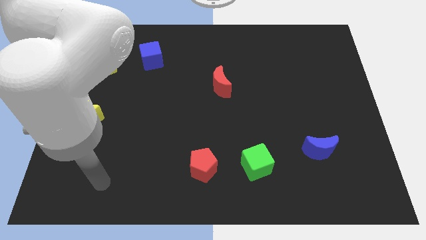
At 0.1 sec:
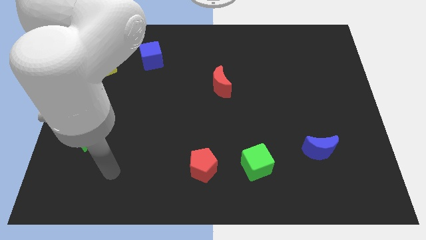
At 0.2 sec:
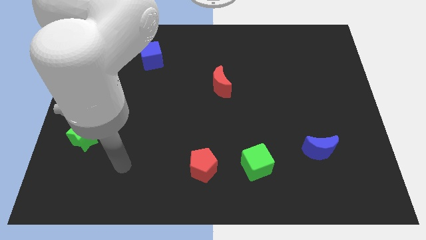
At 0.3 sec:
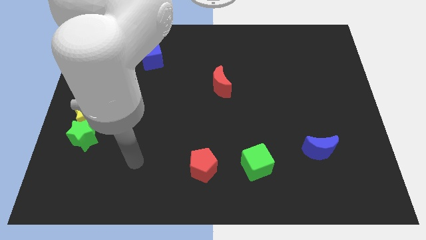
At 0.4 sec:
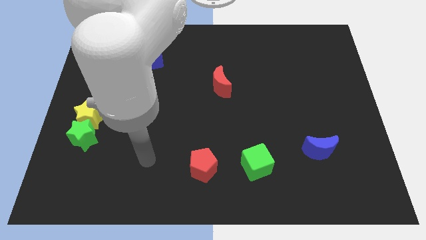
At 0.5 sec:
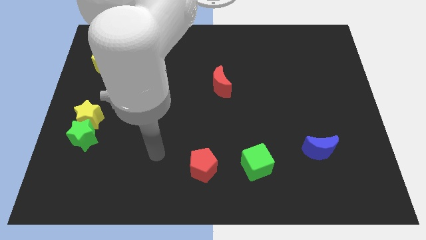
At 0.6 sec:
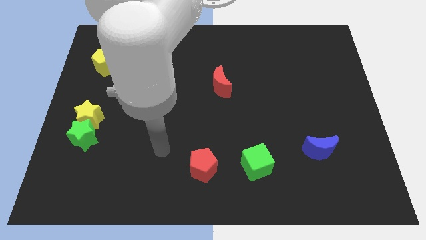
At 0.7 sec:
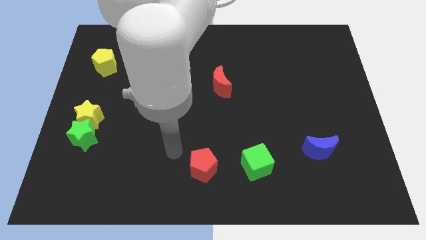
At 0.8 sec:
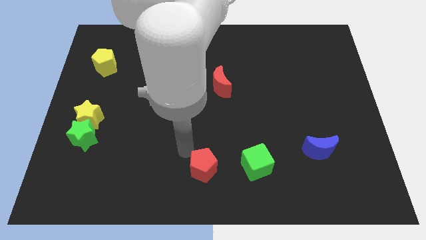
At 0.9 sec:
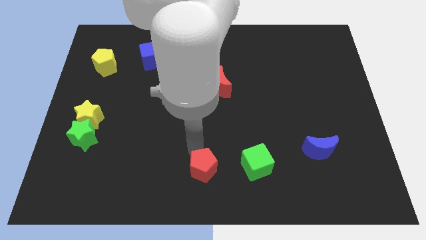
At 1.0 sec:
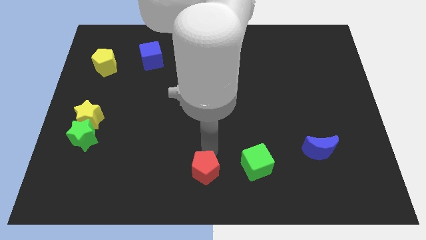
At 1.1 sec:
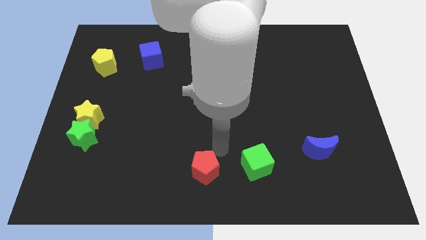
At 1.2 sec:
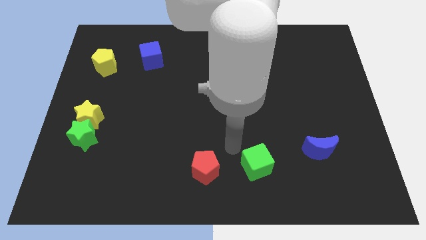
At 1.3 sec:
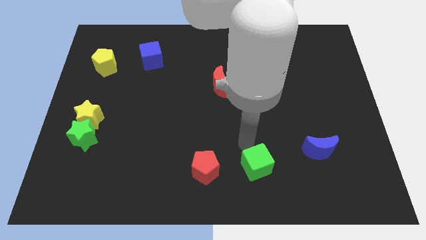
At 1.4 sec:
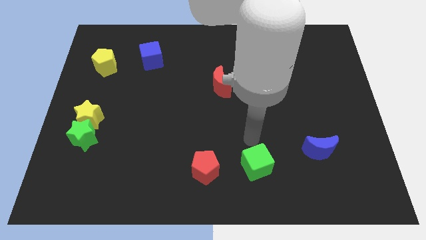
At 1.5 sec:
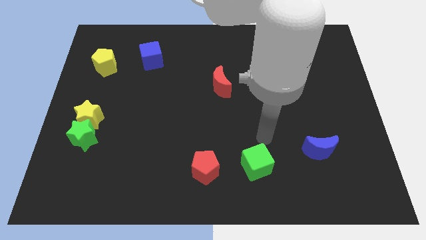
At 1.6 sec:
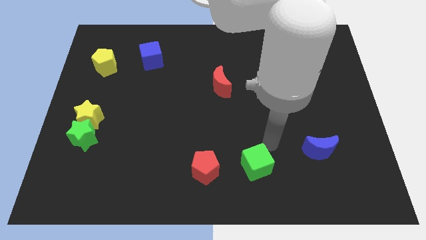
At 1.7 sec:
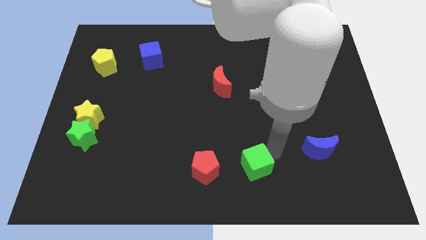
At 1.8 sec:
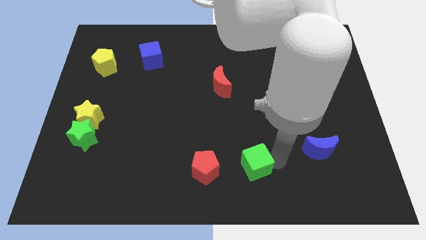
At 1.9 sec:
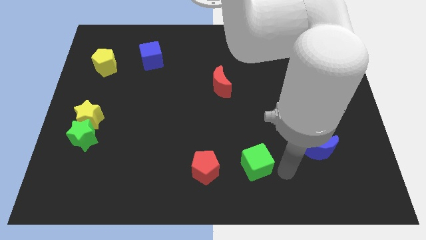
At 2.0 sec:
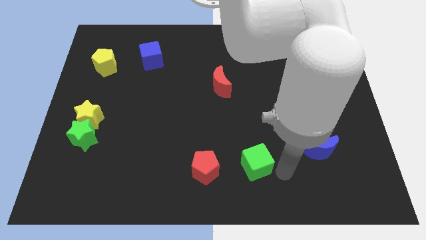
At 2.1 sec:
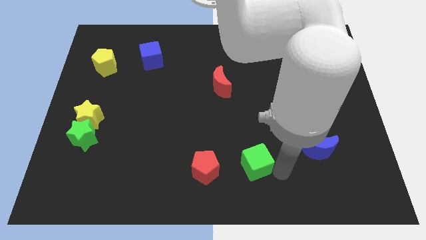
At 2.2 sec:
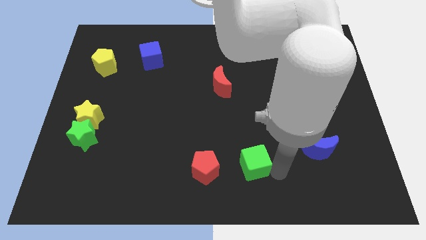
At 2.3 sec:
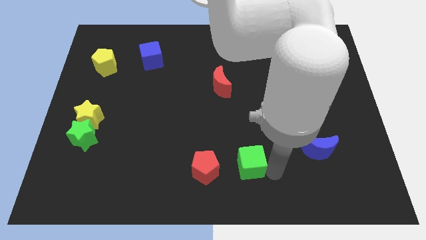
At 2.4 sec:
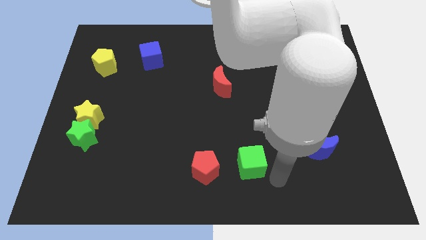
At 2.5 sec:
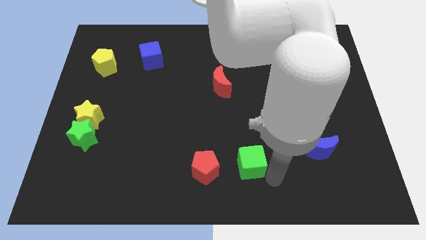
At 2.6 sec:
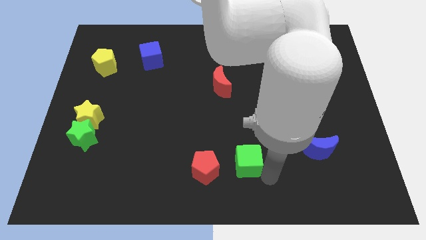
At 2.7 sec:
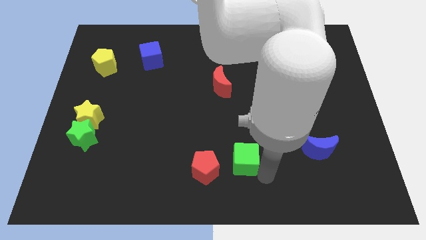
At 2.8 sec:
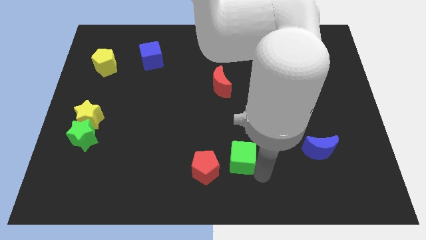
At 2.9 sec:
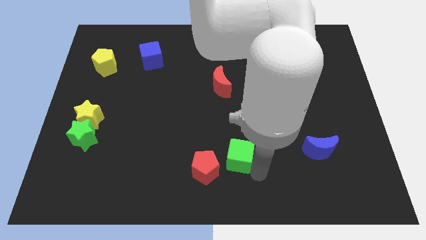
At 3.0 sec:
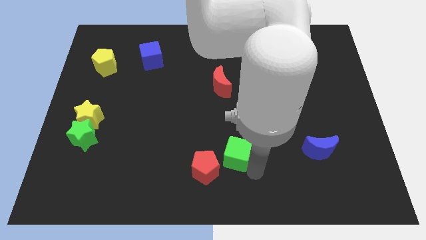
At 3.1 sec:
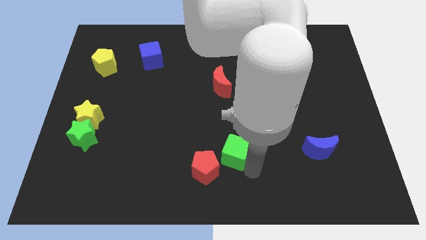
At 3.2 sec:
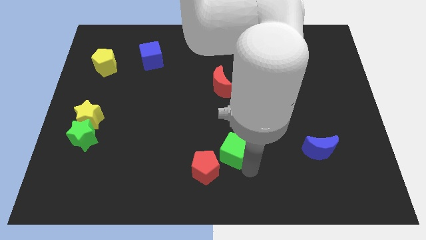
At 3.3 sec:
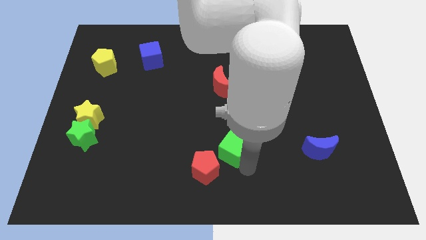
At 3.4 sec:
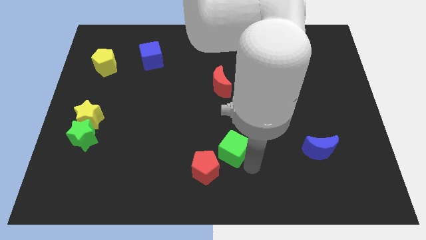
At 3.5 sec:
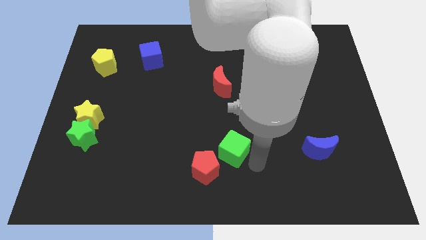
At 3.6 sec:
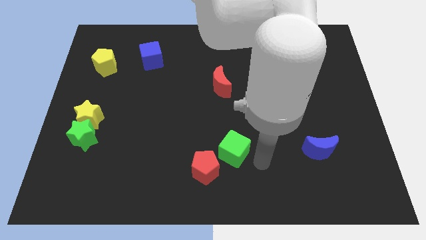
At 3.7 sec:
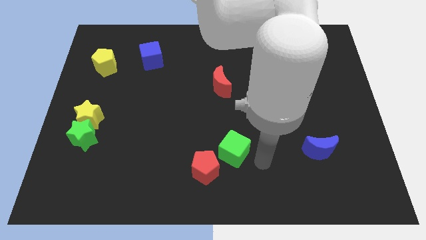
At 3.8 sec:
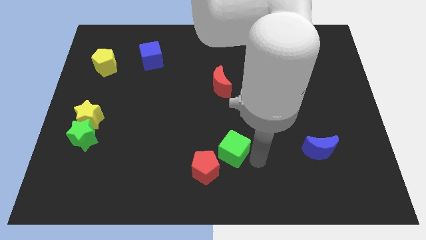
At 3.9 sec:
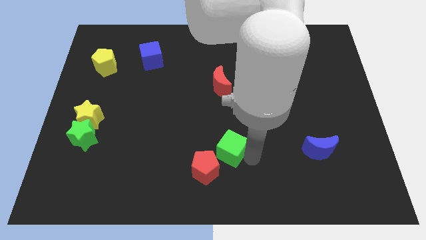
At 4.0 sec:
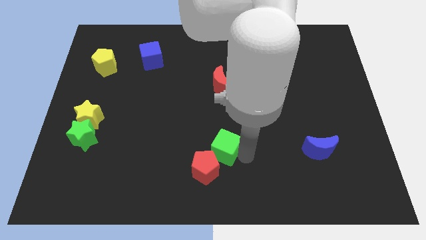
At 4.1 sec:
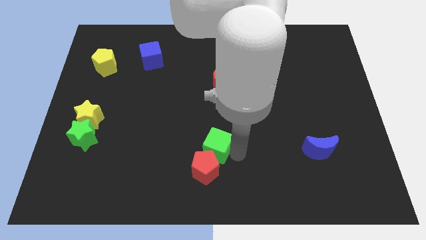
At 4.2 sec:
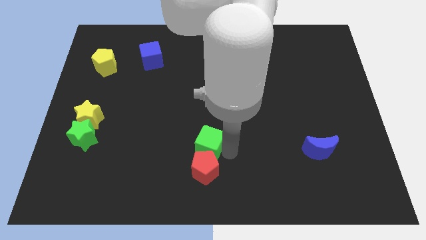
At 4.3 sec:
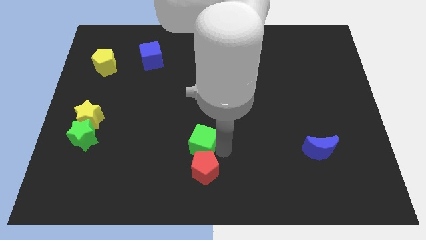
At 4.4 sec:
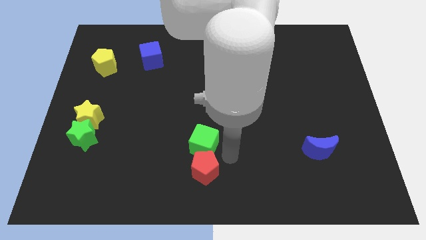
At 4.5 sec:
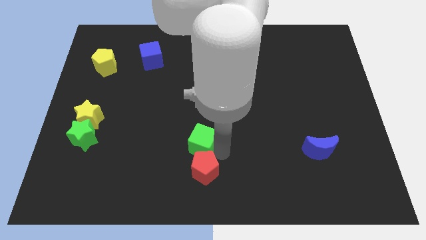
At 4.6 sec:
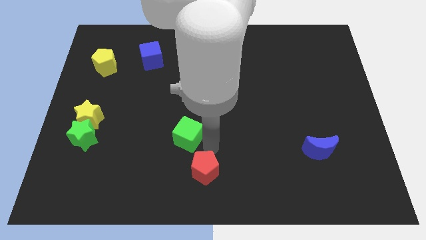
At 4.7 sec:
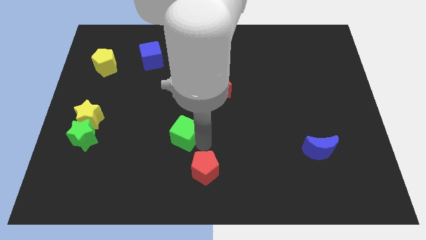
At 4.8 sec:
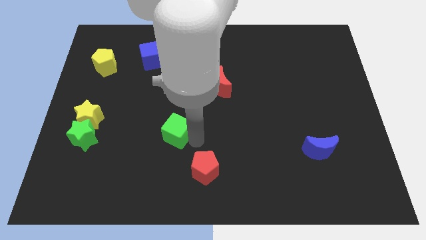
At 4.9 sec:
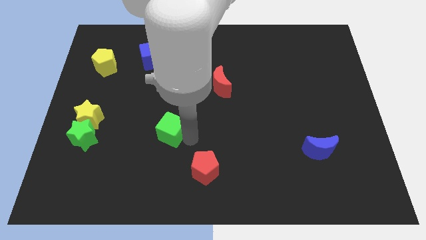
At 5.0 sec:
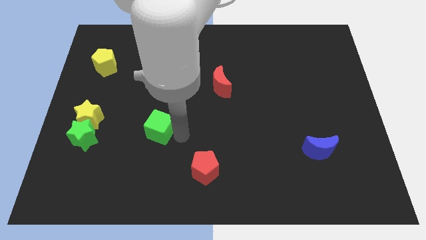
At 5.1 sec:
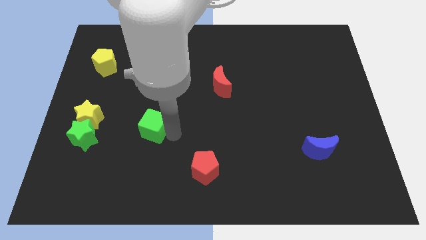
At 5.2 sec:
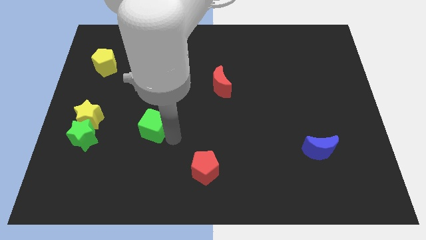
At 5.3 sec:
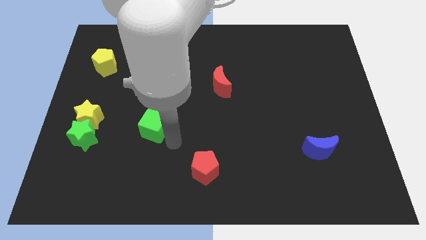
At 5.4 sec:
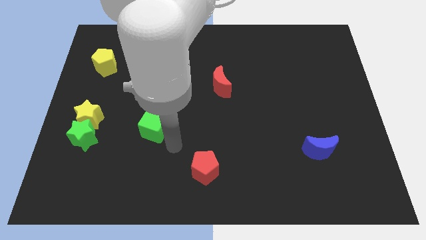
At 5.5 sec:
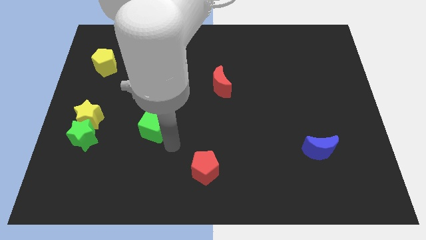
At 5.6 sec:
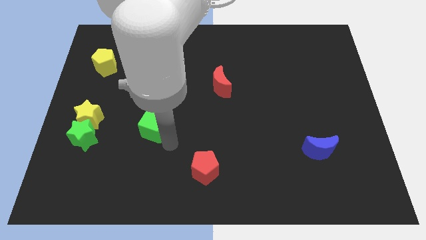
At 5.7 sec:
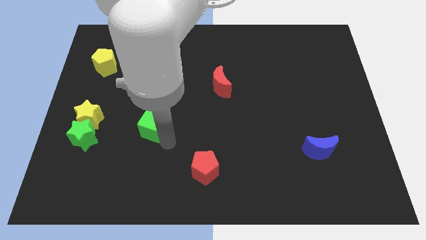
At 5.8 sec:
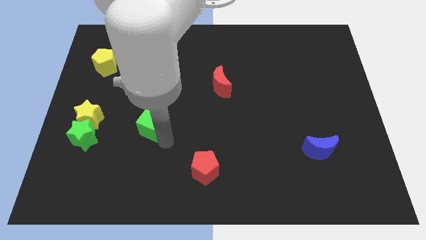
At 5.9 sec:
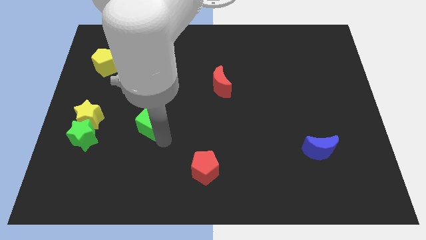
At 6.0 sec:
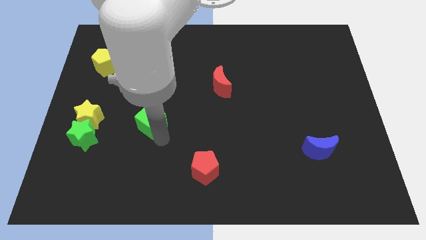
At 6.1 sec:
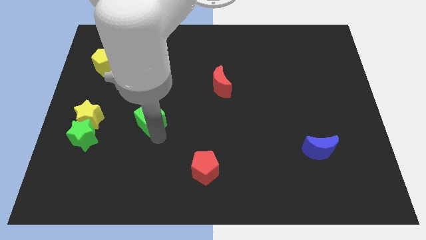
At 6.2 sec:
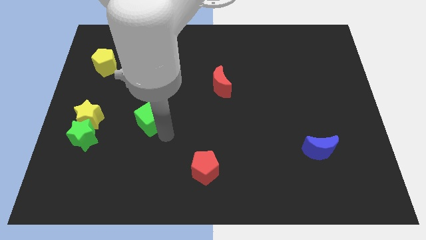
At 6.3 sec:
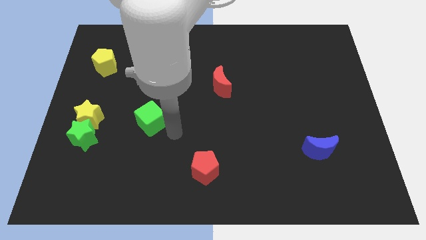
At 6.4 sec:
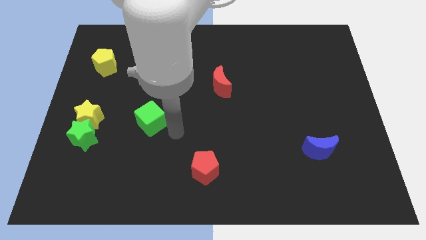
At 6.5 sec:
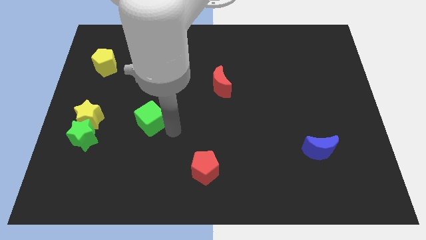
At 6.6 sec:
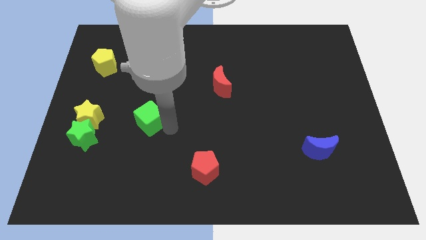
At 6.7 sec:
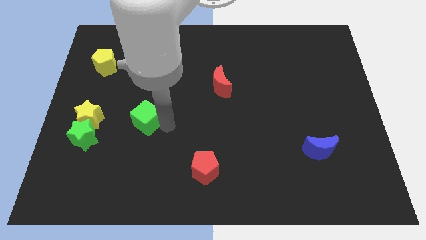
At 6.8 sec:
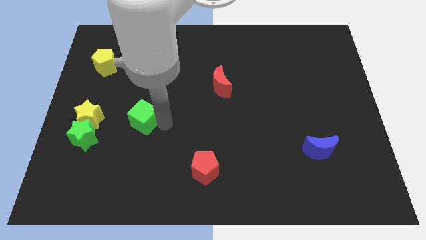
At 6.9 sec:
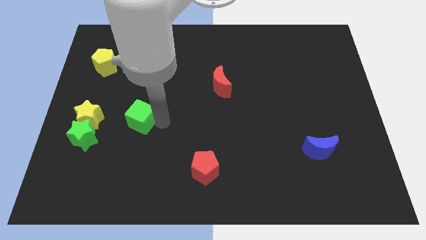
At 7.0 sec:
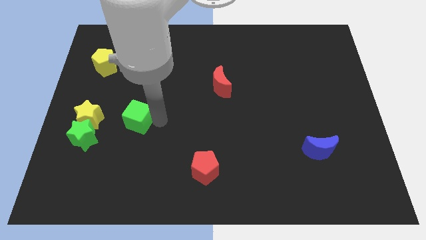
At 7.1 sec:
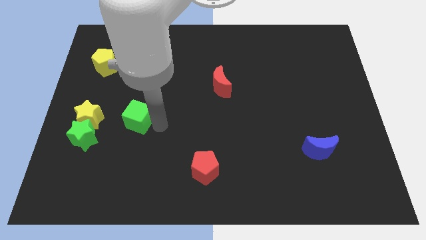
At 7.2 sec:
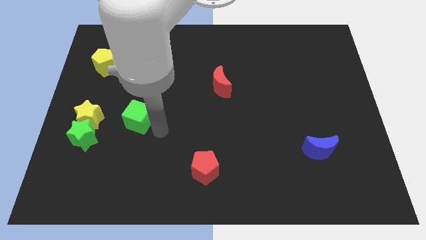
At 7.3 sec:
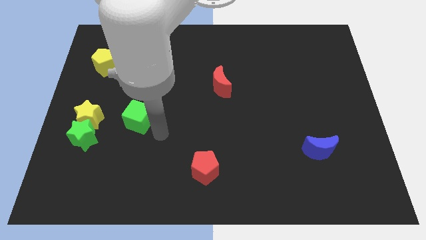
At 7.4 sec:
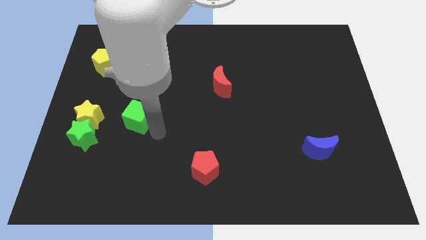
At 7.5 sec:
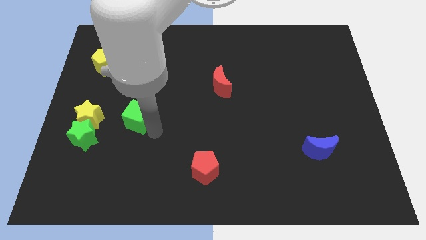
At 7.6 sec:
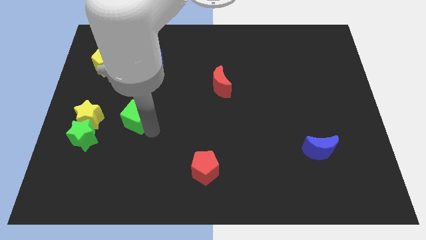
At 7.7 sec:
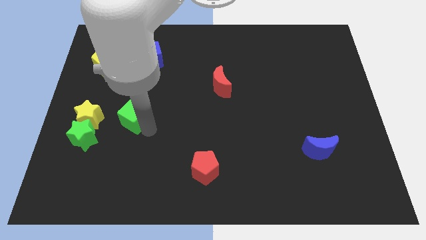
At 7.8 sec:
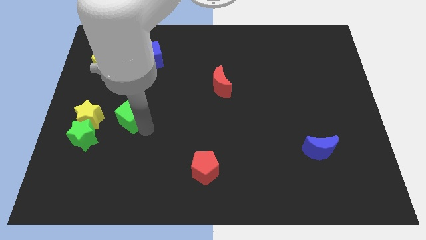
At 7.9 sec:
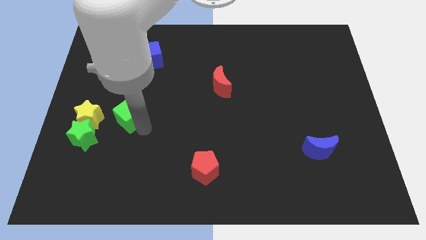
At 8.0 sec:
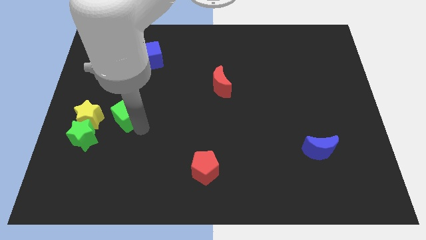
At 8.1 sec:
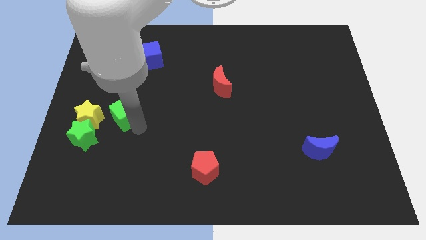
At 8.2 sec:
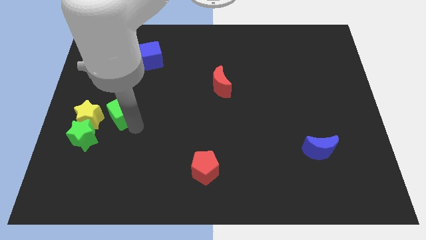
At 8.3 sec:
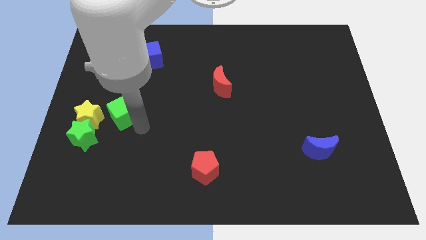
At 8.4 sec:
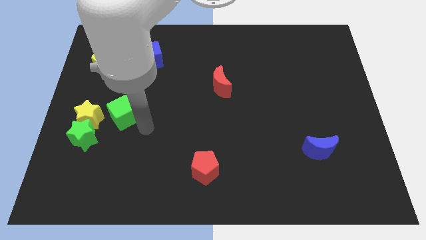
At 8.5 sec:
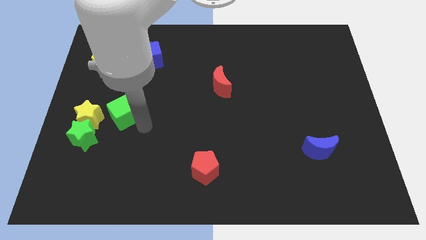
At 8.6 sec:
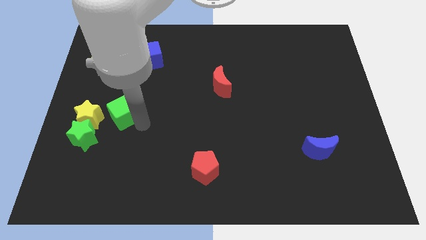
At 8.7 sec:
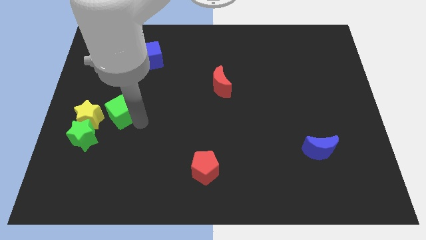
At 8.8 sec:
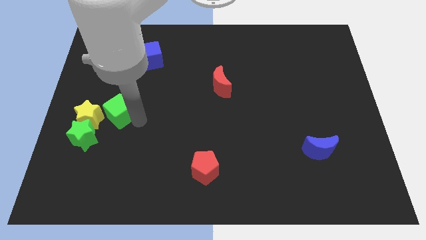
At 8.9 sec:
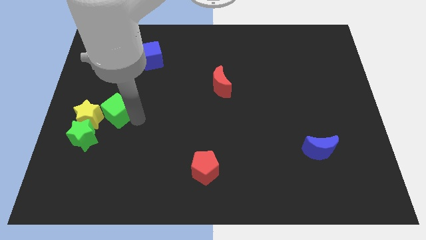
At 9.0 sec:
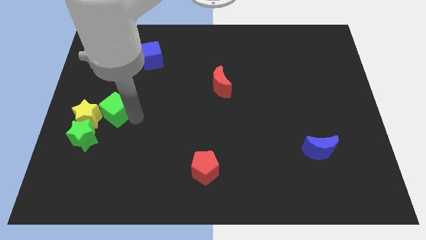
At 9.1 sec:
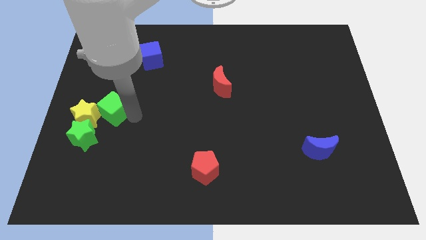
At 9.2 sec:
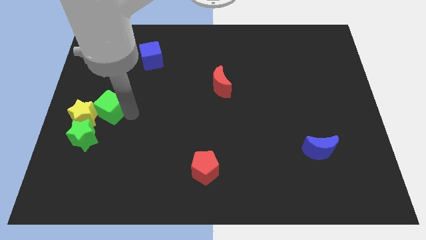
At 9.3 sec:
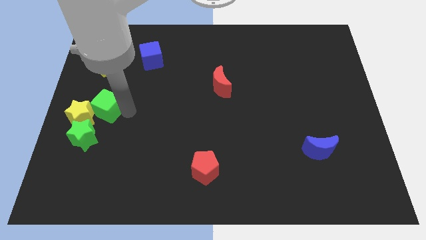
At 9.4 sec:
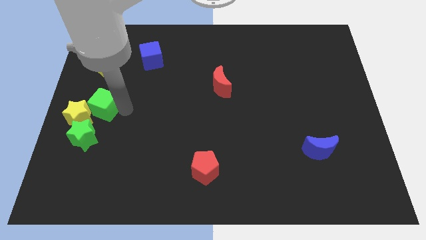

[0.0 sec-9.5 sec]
push the green cube to the left side of the board
